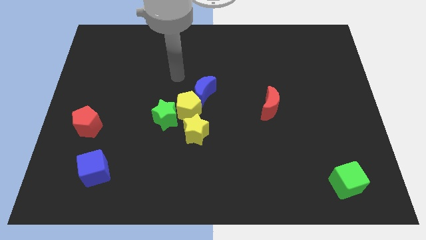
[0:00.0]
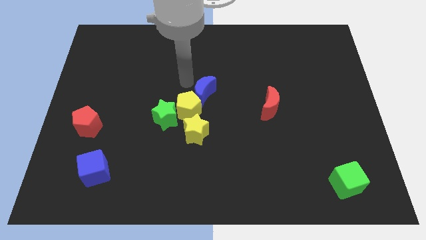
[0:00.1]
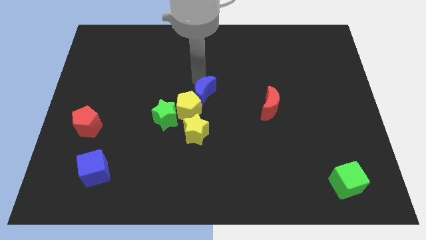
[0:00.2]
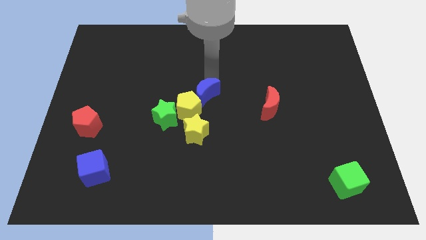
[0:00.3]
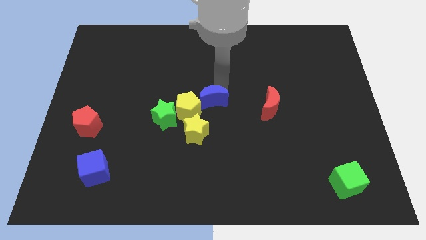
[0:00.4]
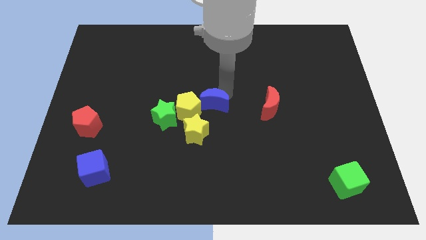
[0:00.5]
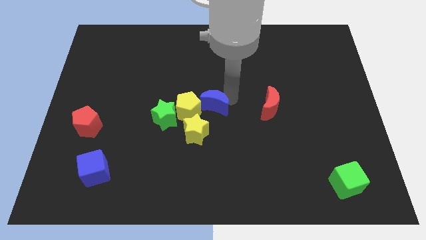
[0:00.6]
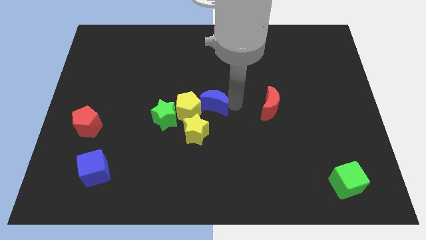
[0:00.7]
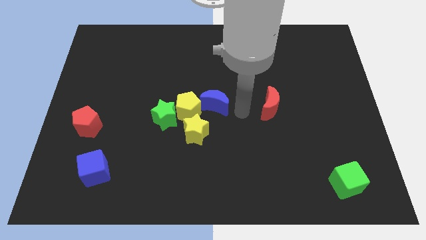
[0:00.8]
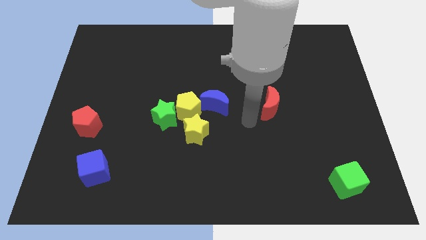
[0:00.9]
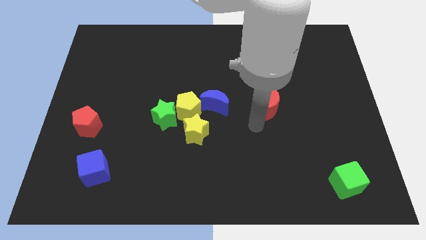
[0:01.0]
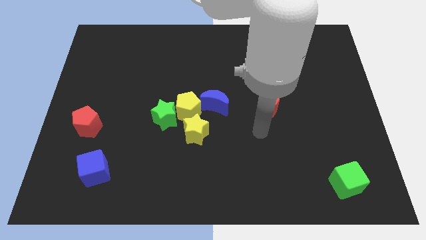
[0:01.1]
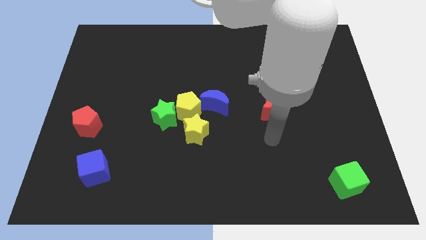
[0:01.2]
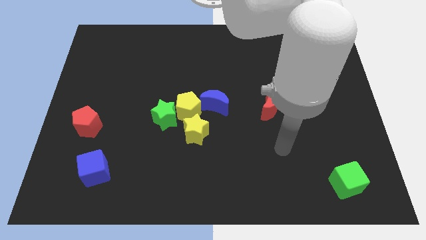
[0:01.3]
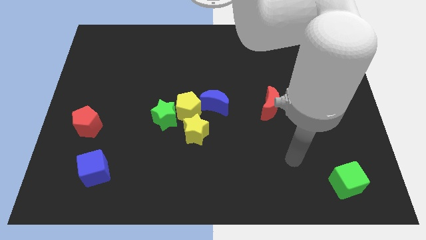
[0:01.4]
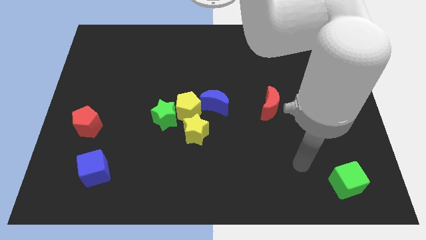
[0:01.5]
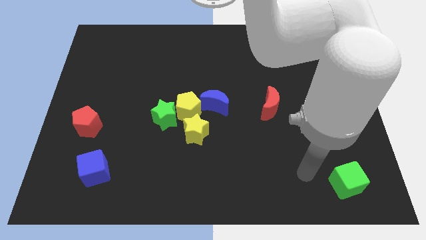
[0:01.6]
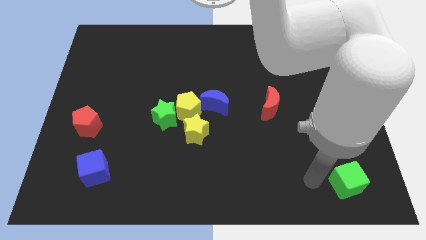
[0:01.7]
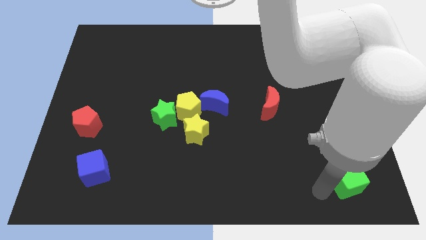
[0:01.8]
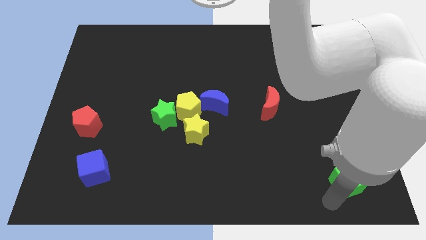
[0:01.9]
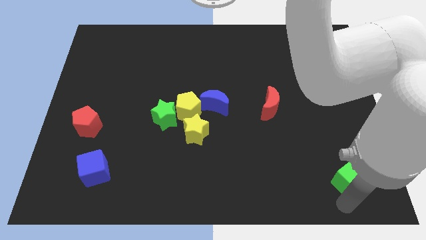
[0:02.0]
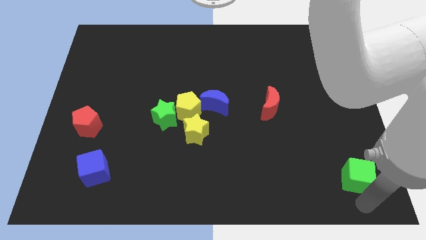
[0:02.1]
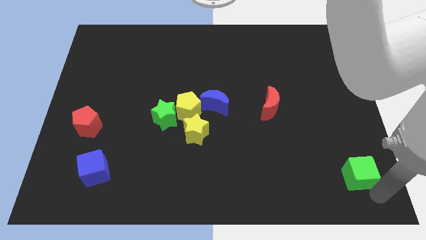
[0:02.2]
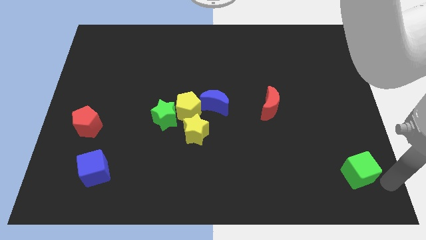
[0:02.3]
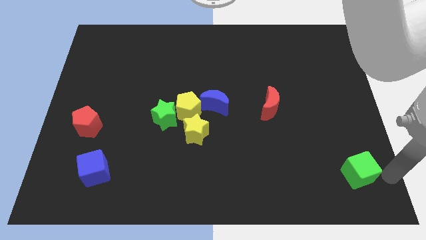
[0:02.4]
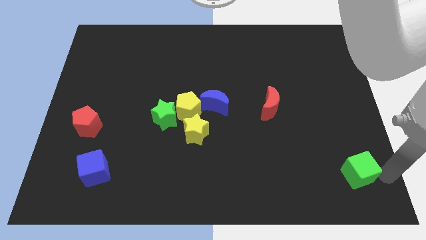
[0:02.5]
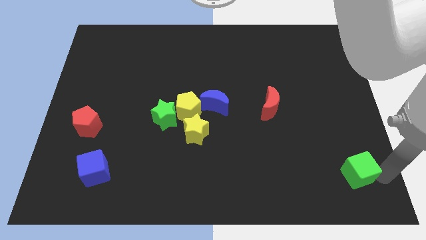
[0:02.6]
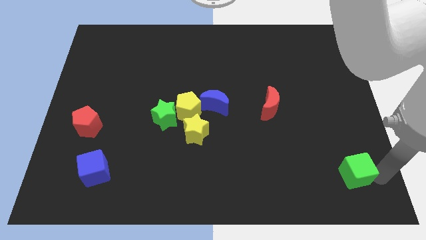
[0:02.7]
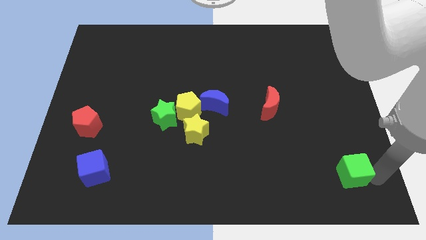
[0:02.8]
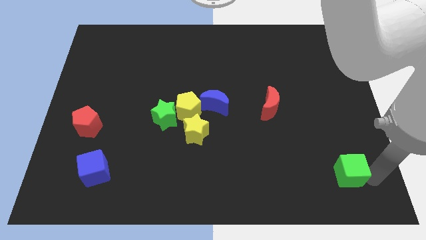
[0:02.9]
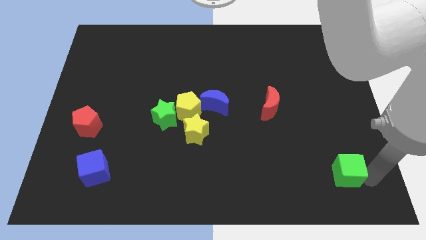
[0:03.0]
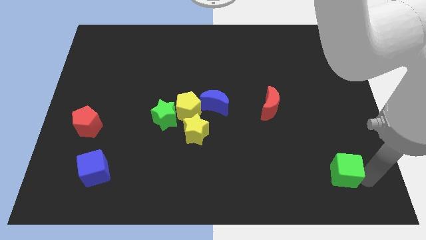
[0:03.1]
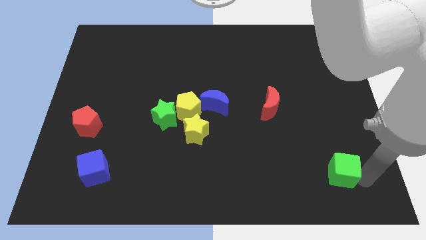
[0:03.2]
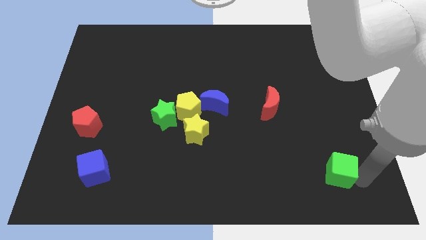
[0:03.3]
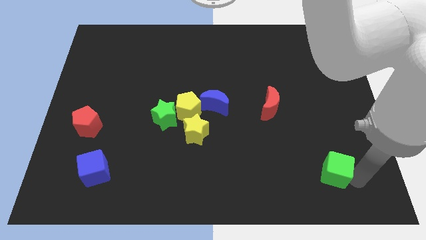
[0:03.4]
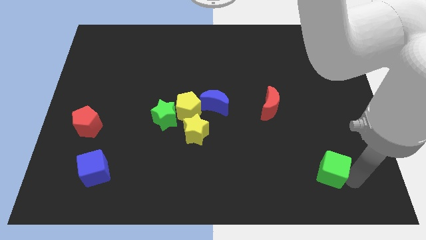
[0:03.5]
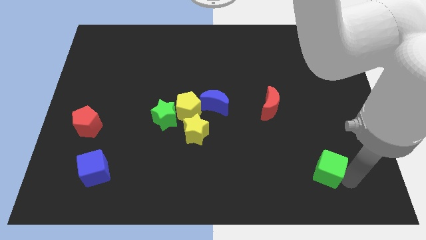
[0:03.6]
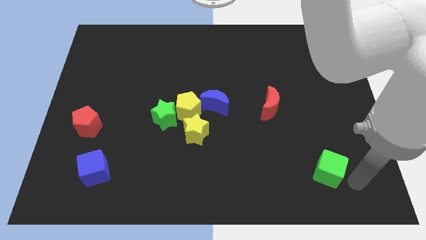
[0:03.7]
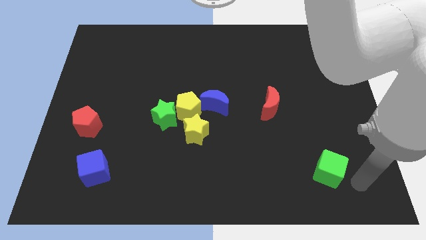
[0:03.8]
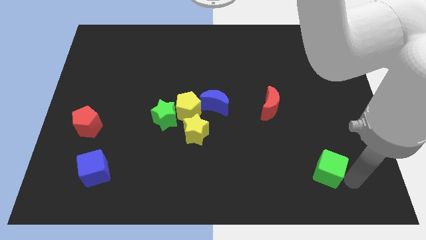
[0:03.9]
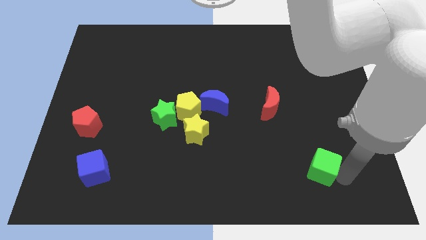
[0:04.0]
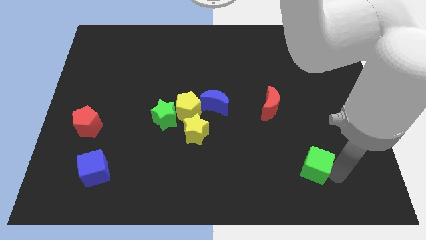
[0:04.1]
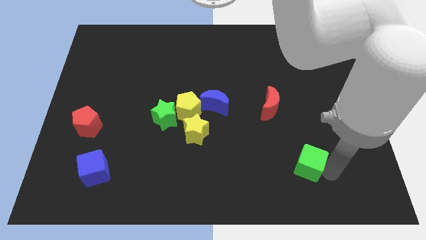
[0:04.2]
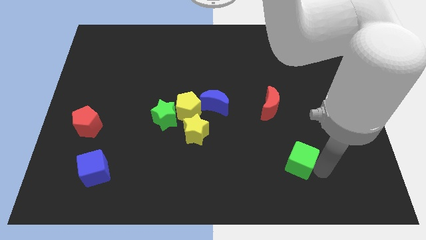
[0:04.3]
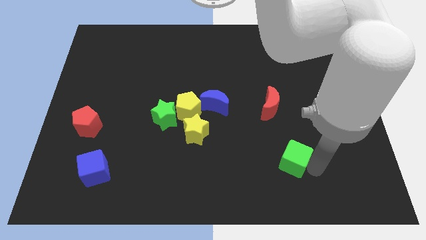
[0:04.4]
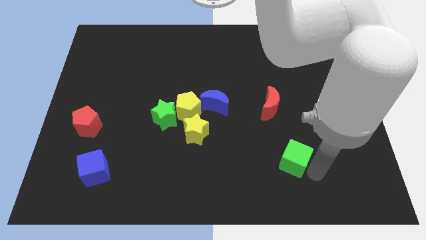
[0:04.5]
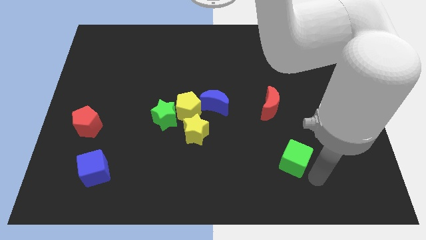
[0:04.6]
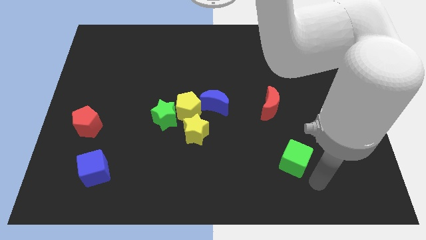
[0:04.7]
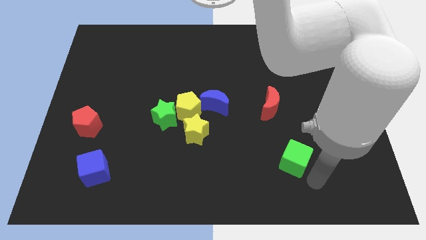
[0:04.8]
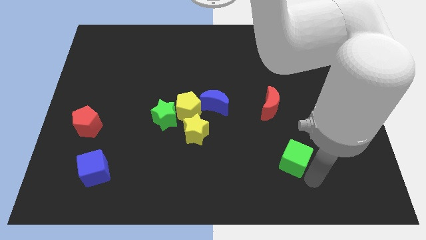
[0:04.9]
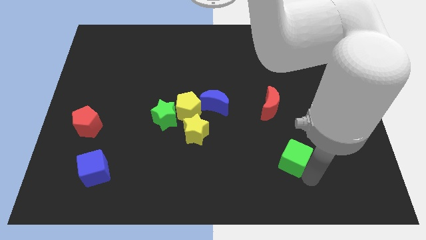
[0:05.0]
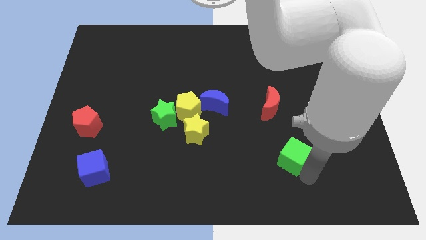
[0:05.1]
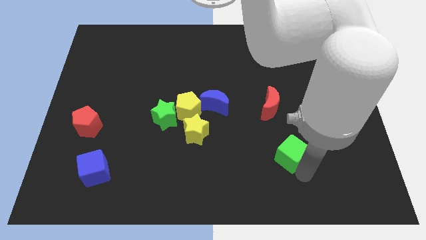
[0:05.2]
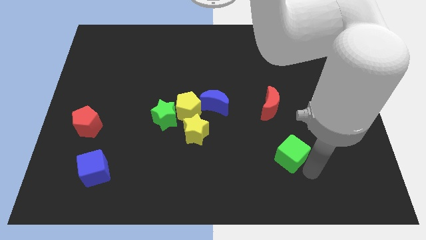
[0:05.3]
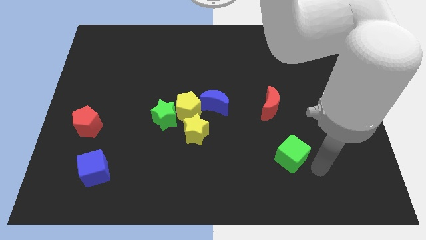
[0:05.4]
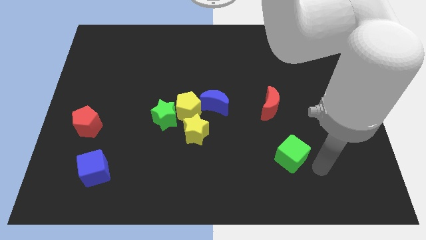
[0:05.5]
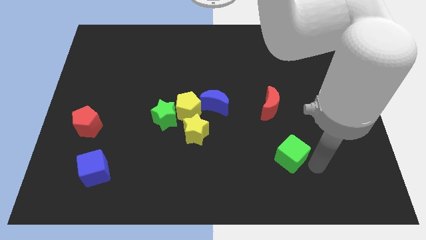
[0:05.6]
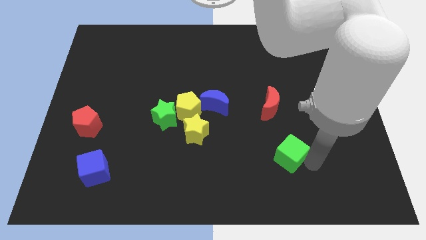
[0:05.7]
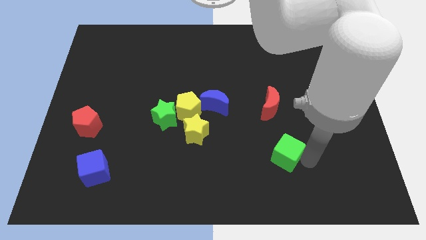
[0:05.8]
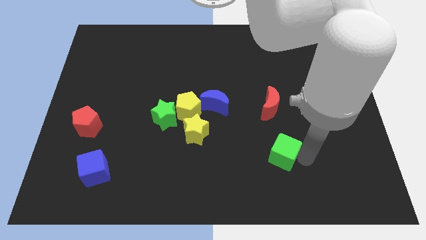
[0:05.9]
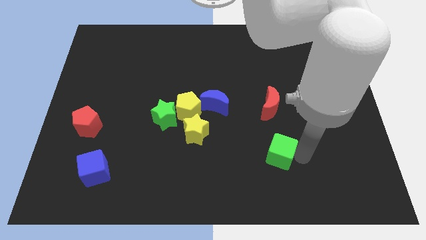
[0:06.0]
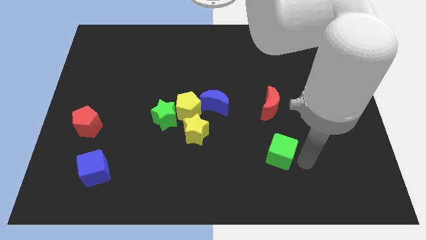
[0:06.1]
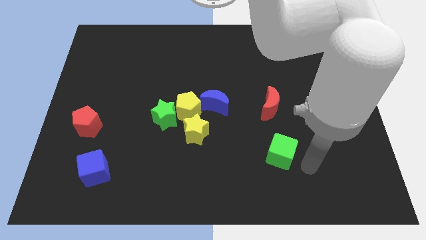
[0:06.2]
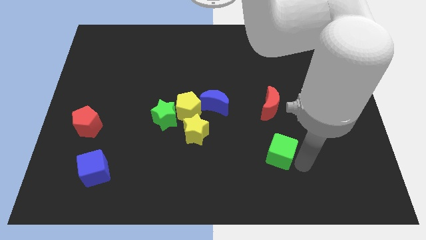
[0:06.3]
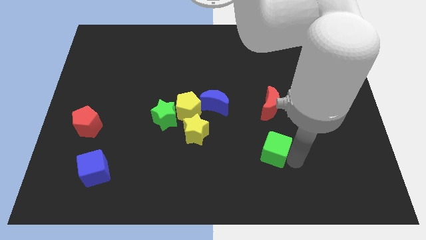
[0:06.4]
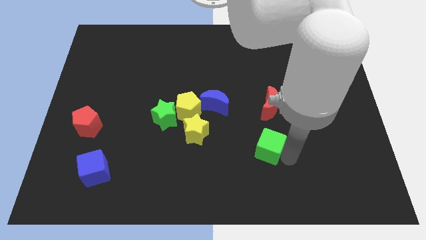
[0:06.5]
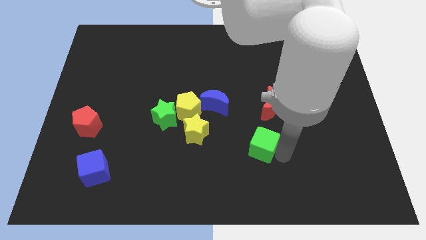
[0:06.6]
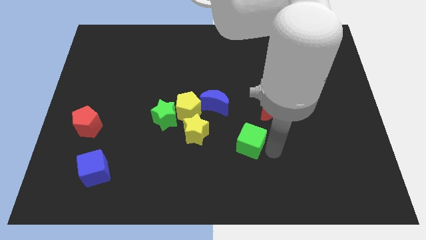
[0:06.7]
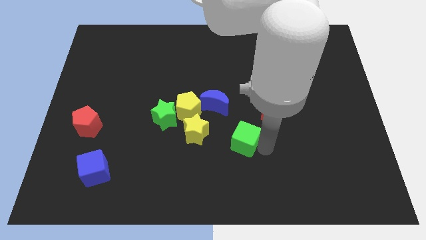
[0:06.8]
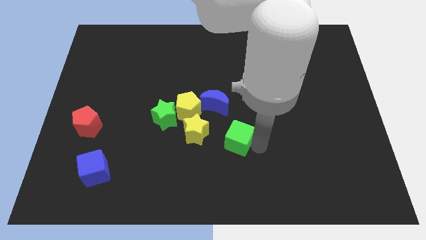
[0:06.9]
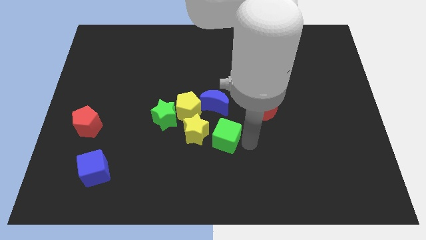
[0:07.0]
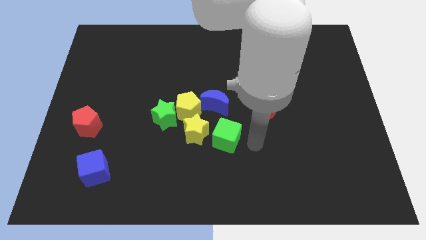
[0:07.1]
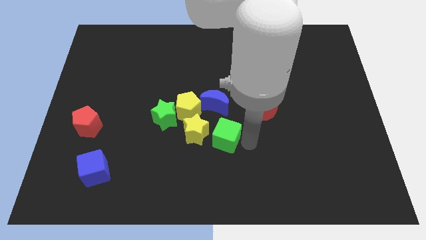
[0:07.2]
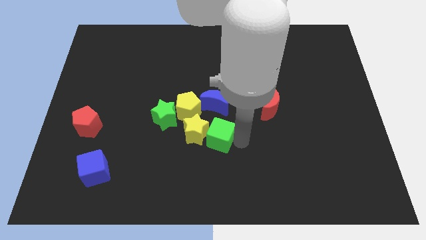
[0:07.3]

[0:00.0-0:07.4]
push the green cube next to the yellow star
